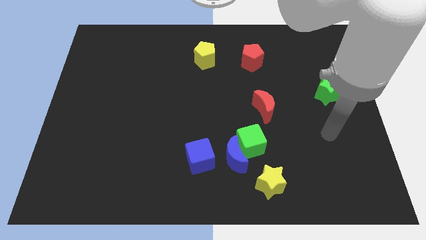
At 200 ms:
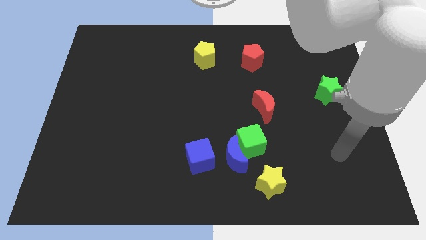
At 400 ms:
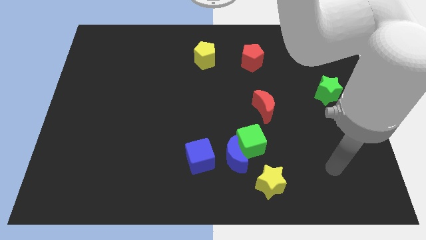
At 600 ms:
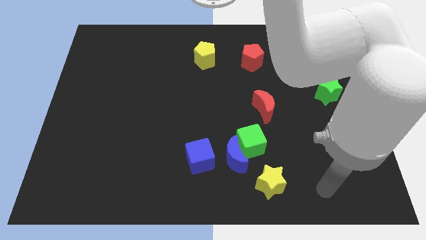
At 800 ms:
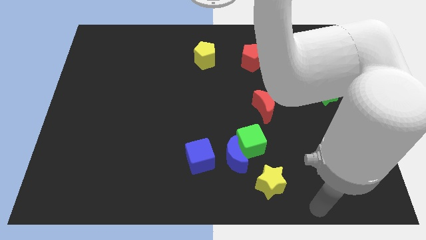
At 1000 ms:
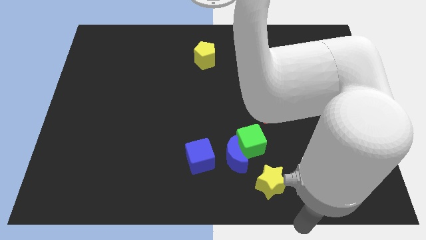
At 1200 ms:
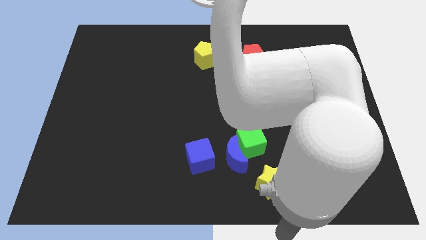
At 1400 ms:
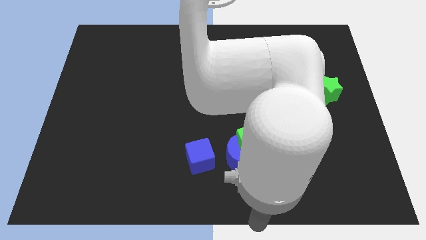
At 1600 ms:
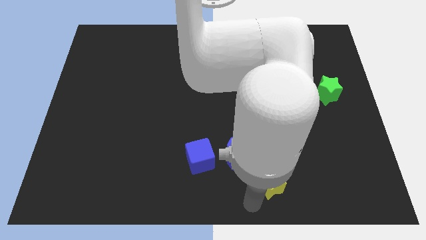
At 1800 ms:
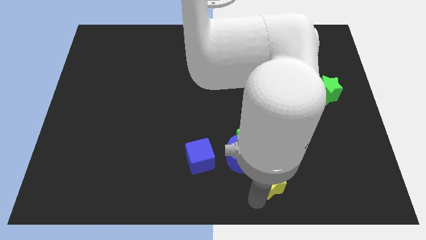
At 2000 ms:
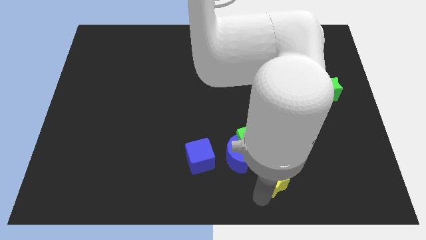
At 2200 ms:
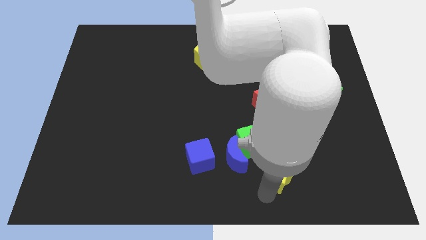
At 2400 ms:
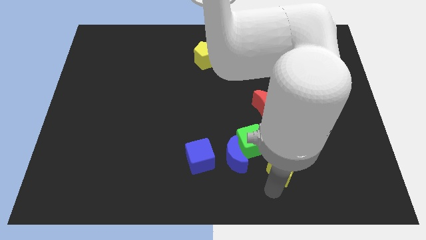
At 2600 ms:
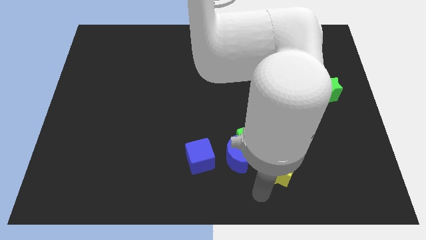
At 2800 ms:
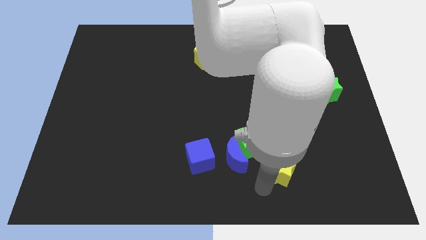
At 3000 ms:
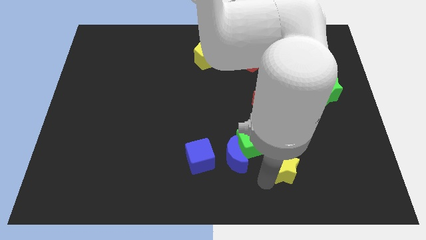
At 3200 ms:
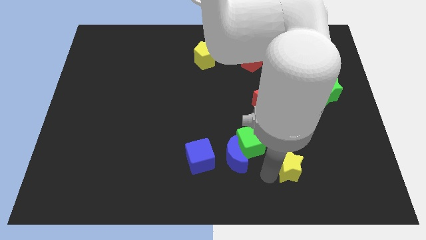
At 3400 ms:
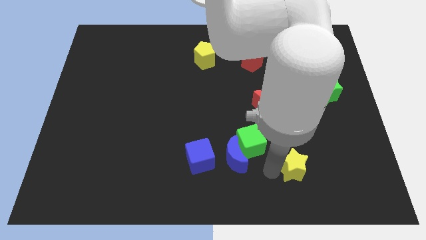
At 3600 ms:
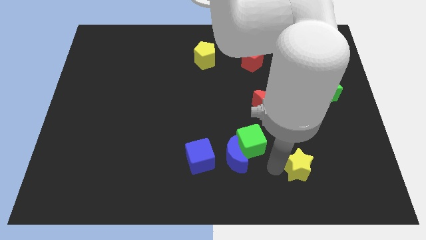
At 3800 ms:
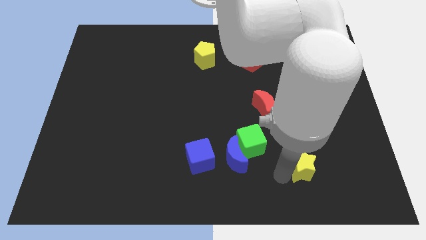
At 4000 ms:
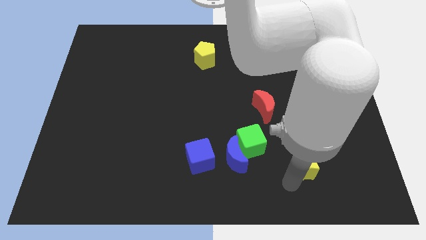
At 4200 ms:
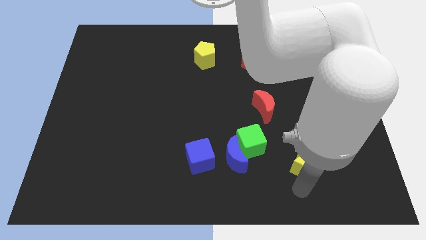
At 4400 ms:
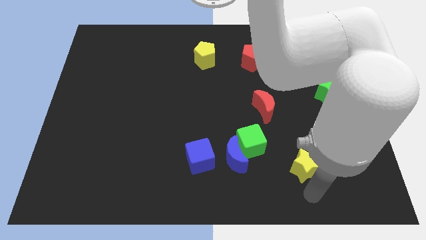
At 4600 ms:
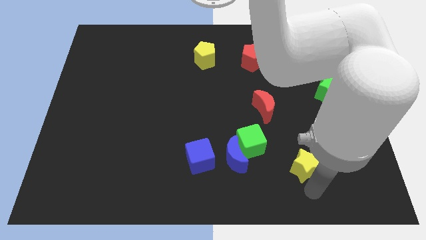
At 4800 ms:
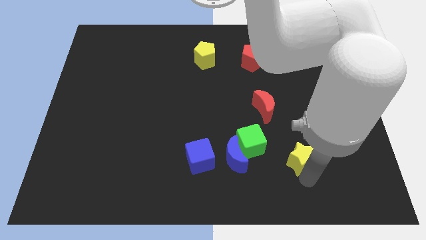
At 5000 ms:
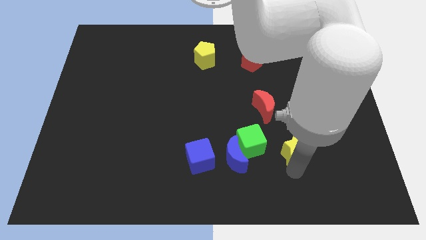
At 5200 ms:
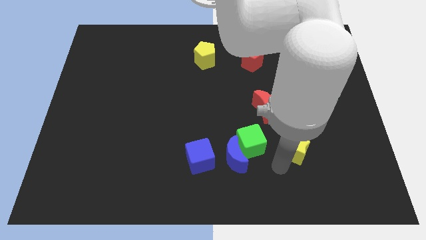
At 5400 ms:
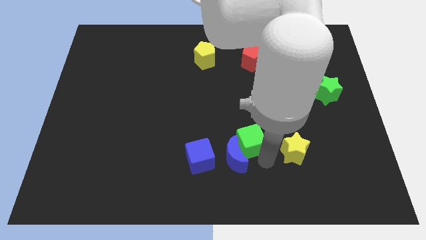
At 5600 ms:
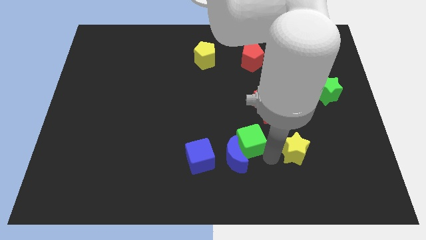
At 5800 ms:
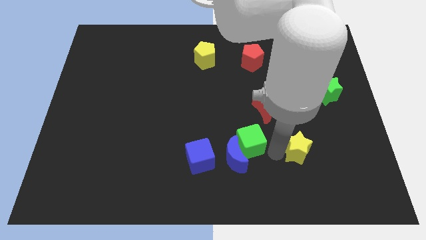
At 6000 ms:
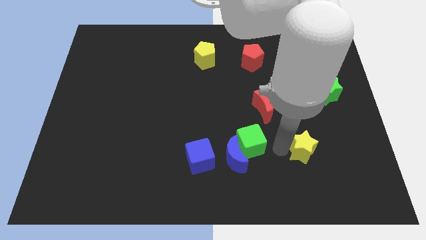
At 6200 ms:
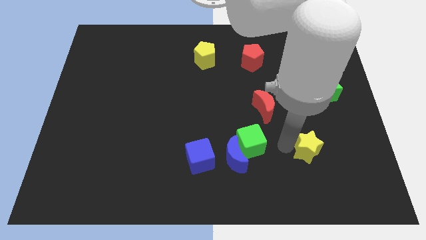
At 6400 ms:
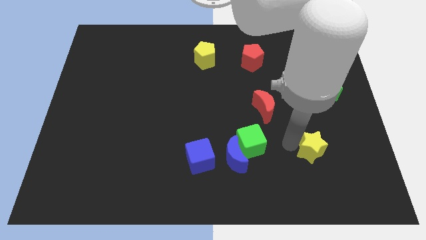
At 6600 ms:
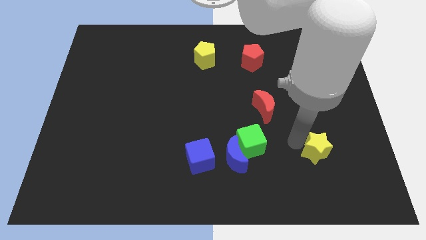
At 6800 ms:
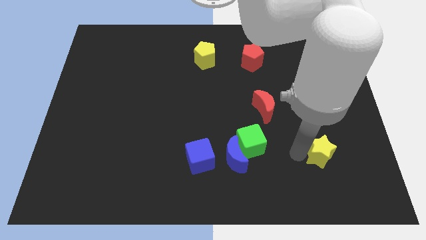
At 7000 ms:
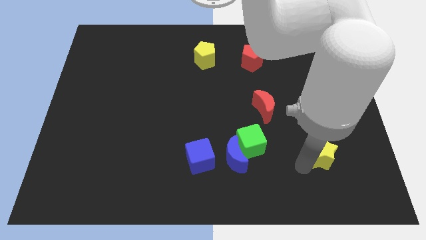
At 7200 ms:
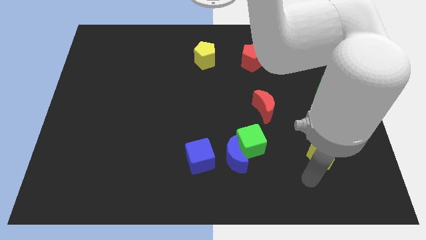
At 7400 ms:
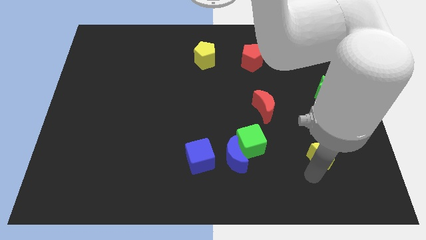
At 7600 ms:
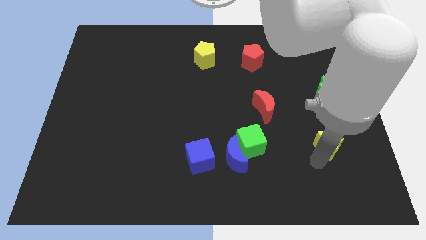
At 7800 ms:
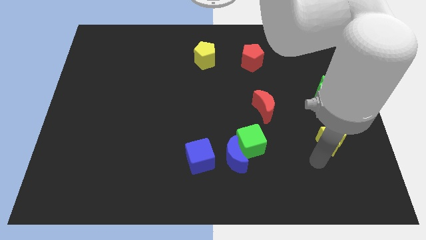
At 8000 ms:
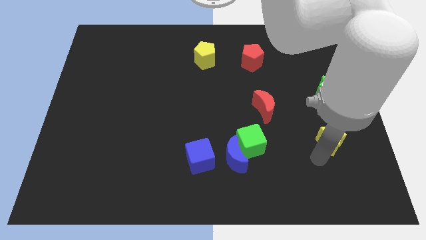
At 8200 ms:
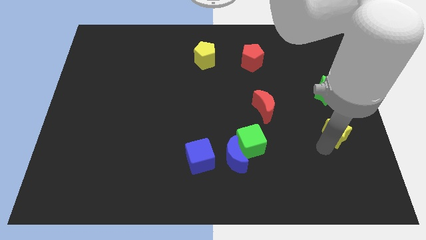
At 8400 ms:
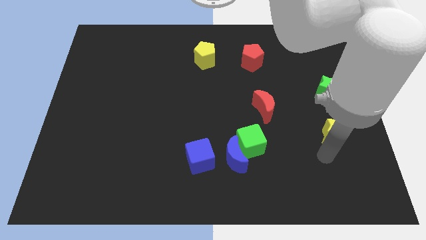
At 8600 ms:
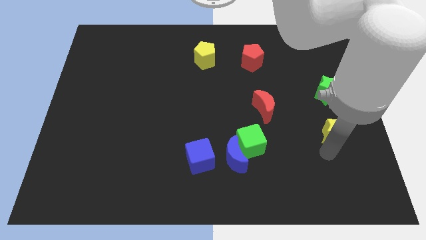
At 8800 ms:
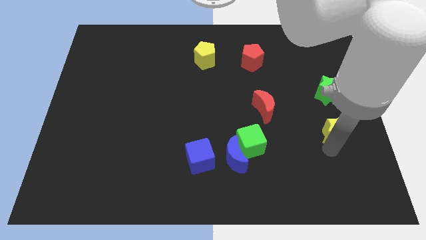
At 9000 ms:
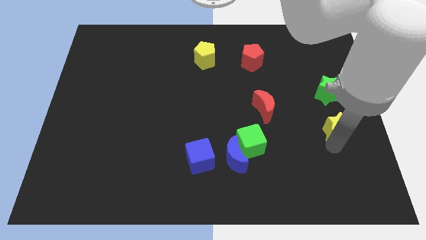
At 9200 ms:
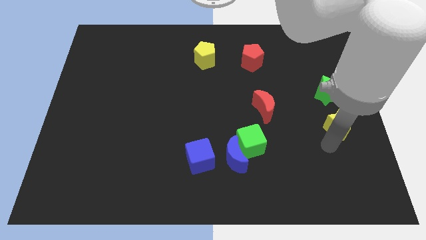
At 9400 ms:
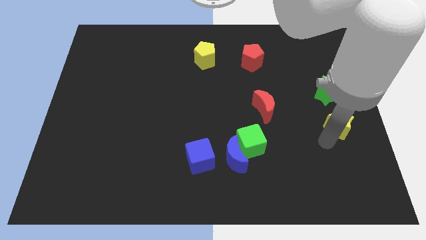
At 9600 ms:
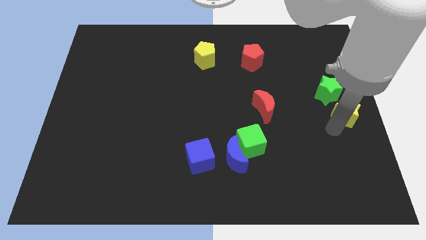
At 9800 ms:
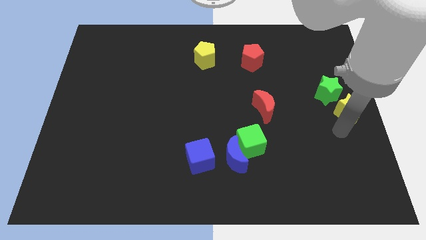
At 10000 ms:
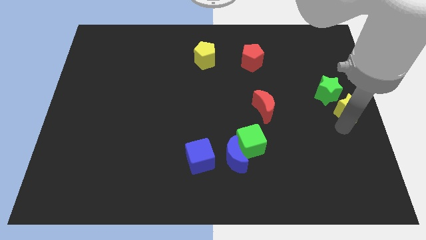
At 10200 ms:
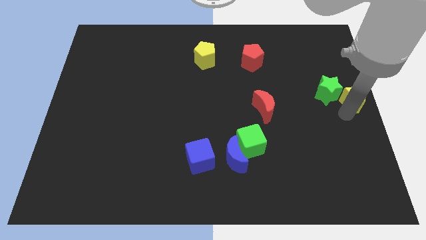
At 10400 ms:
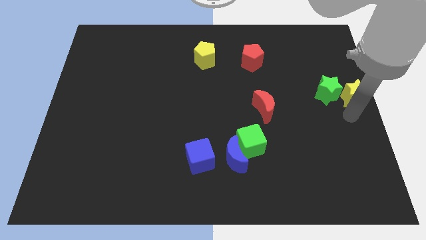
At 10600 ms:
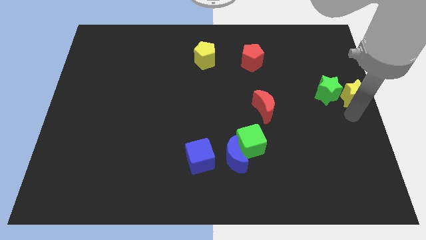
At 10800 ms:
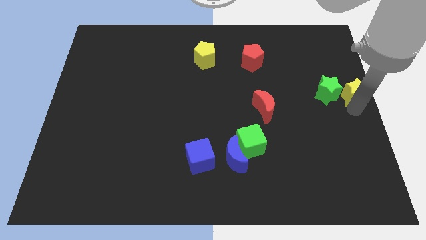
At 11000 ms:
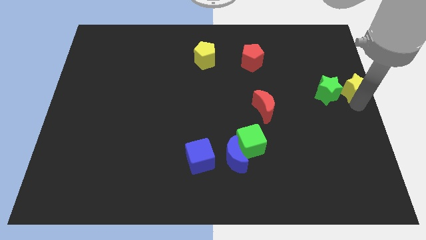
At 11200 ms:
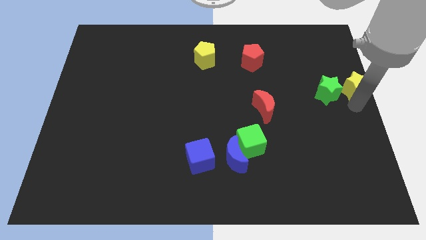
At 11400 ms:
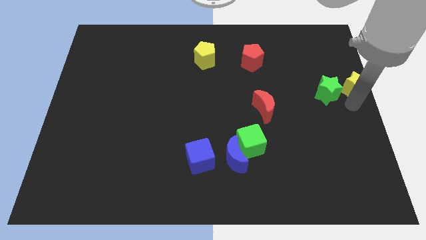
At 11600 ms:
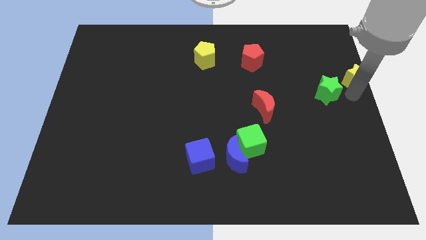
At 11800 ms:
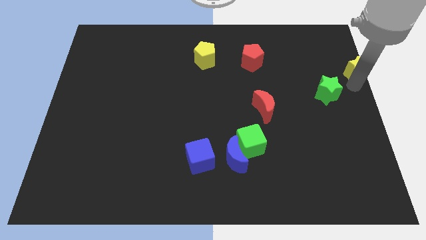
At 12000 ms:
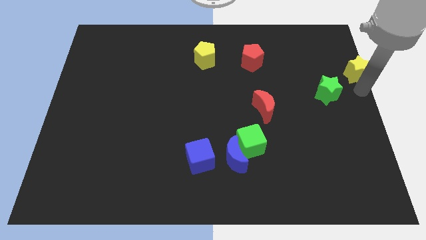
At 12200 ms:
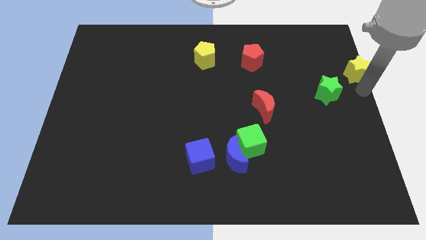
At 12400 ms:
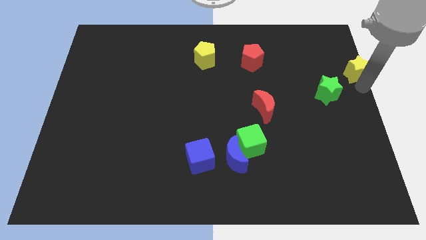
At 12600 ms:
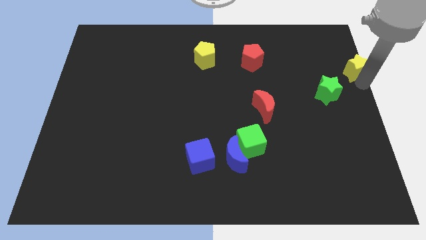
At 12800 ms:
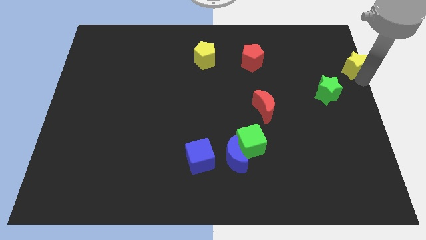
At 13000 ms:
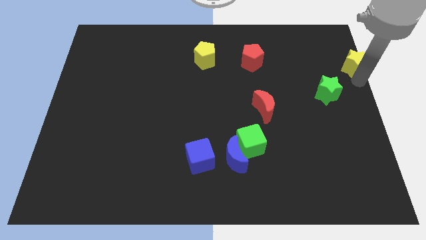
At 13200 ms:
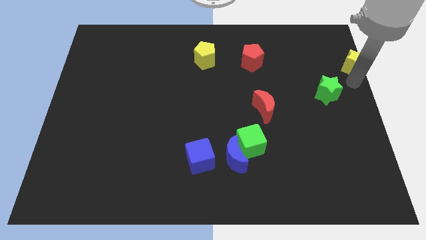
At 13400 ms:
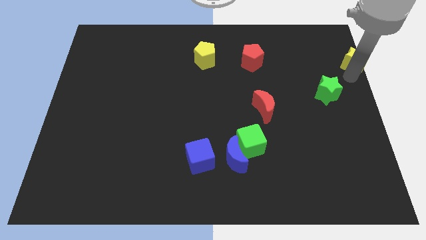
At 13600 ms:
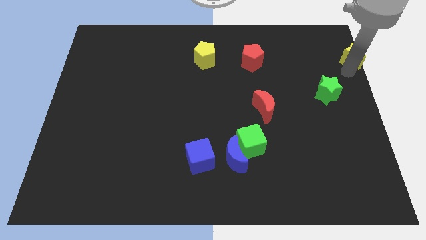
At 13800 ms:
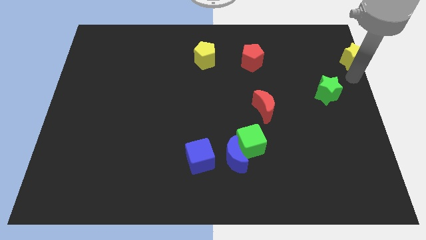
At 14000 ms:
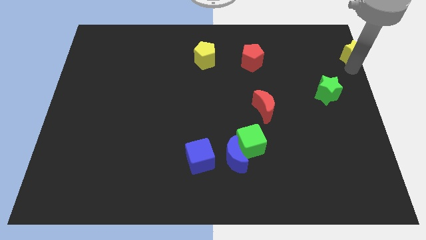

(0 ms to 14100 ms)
slide the yellow star to the upper right corner
